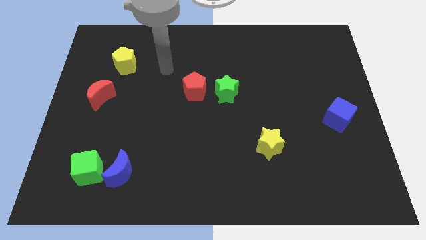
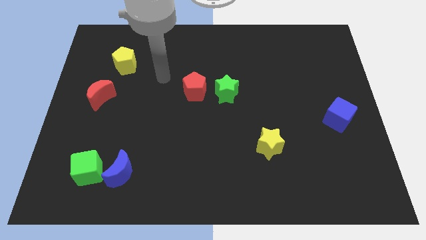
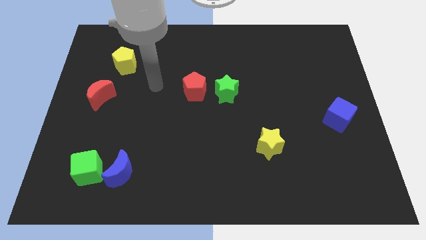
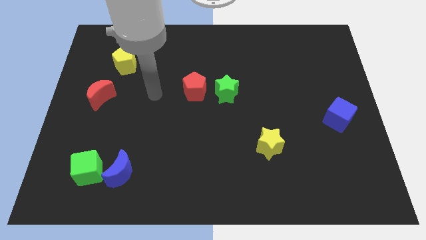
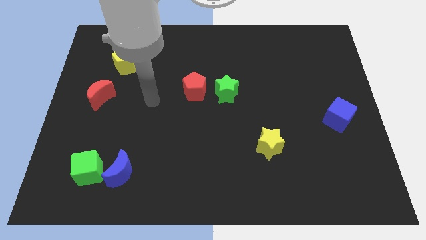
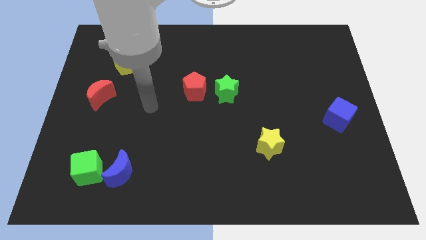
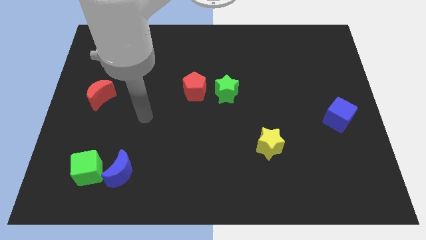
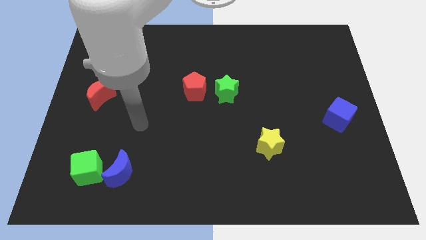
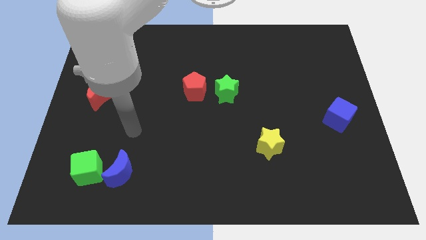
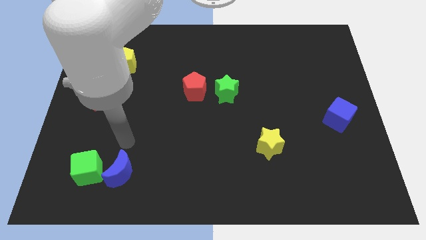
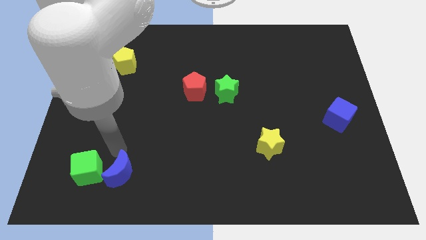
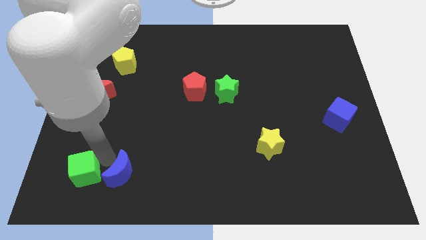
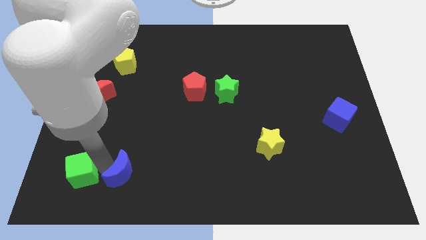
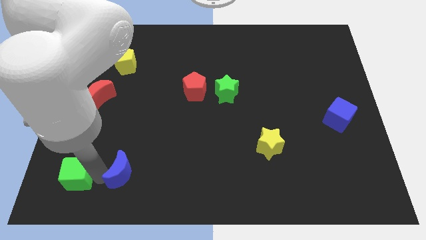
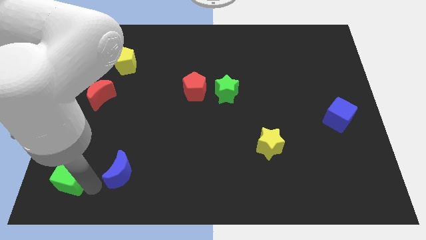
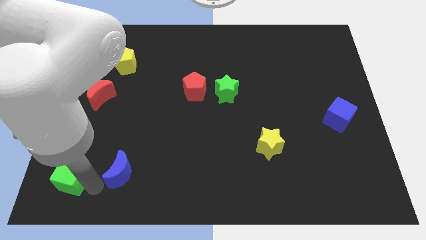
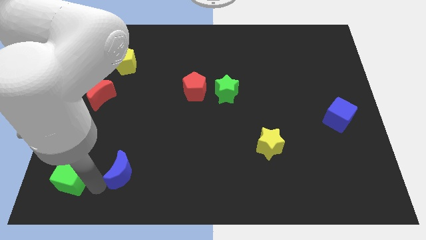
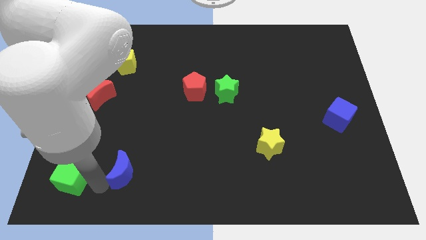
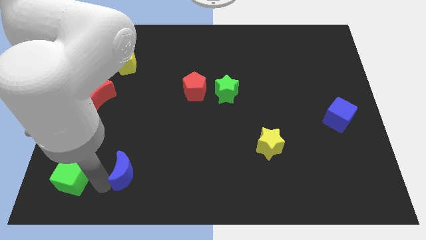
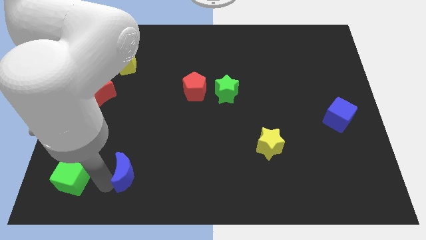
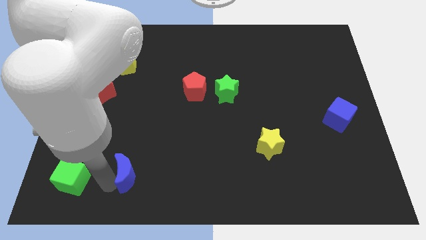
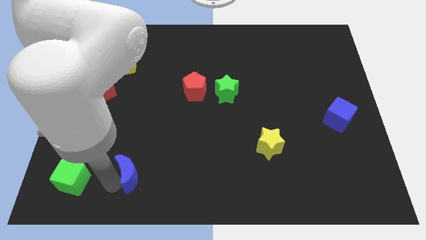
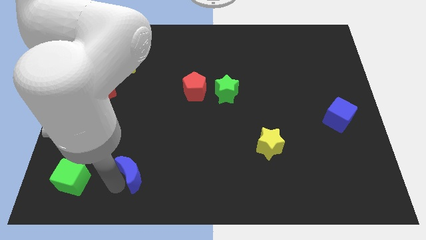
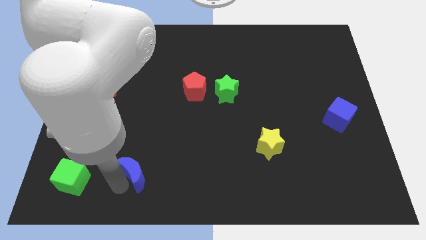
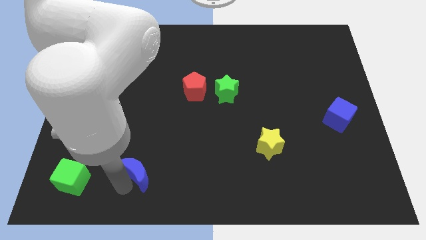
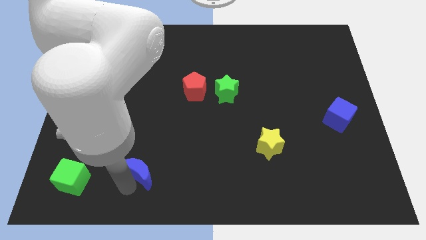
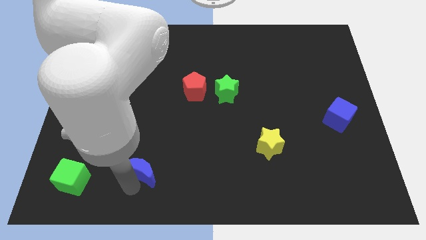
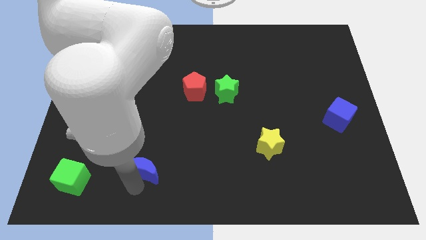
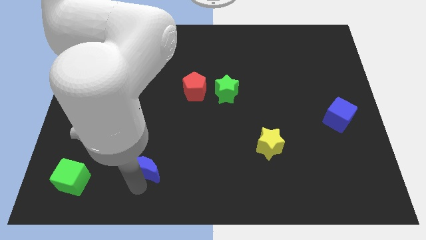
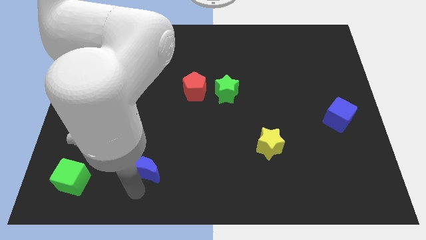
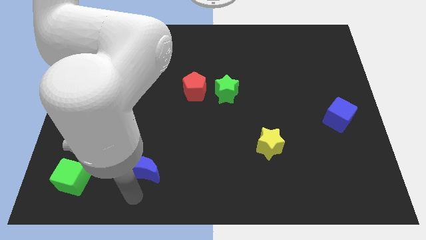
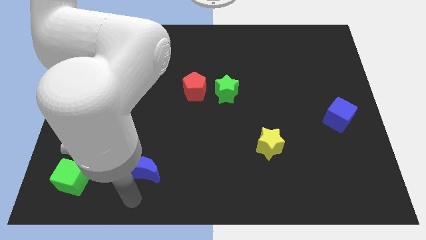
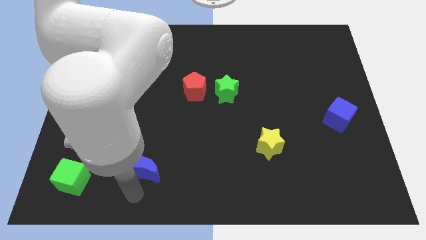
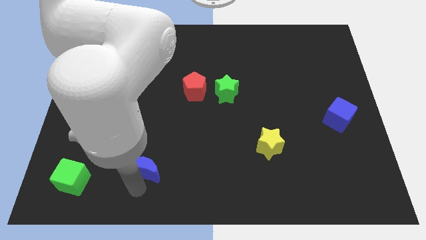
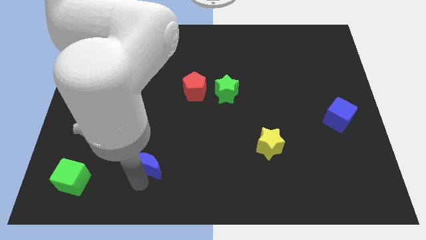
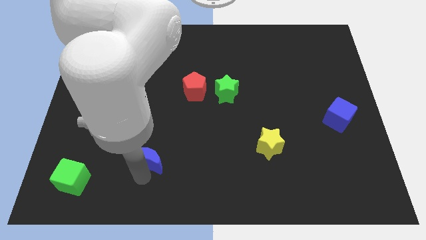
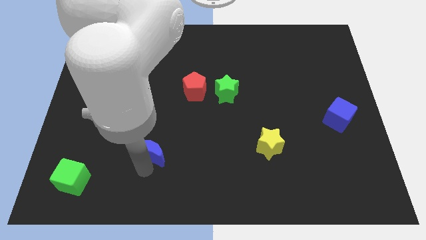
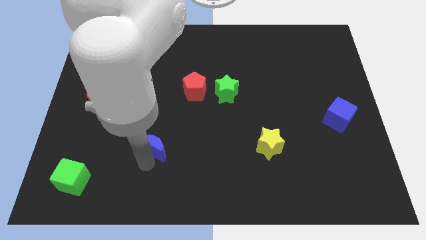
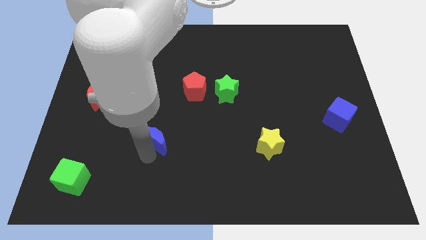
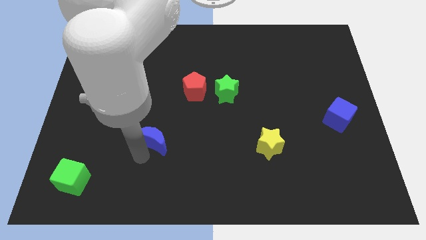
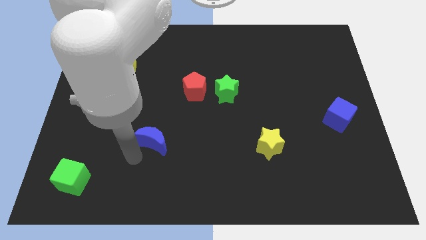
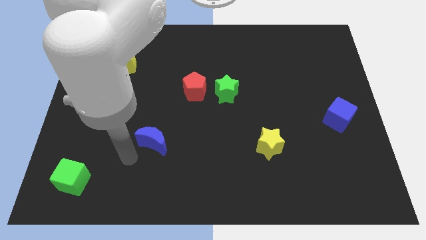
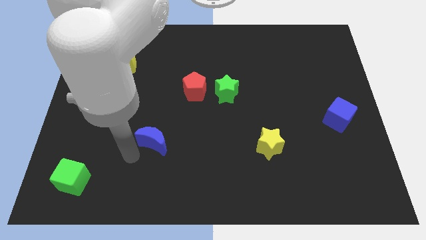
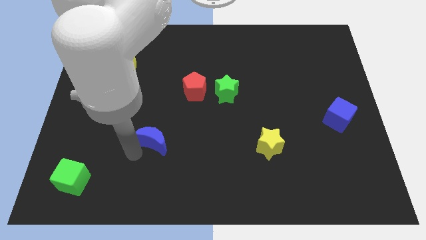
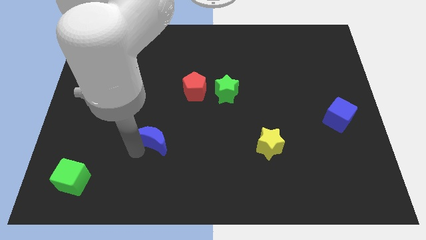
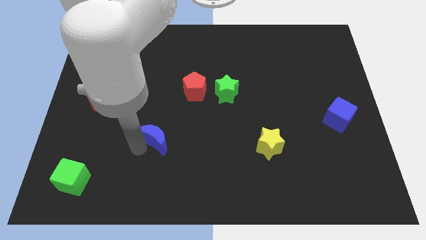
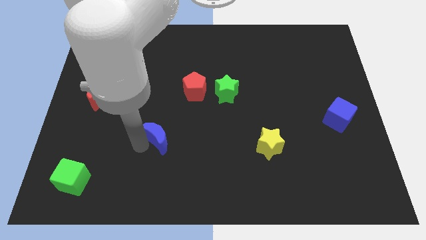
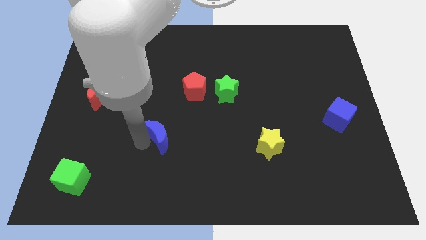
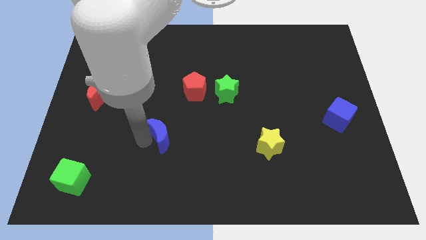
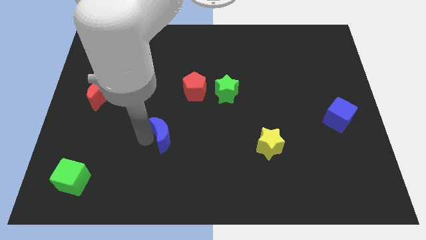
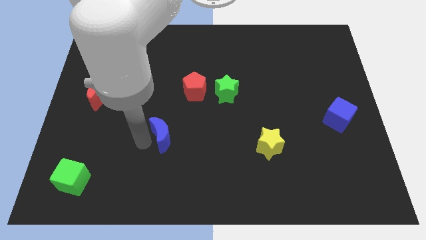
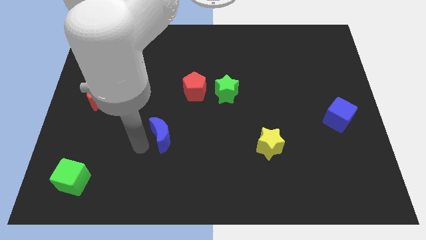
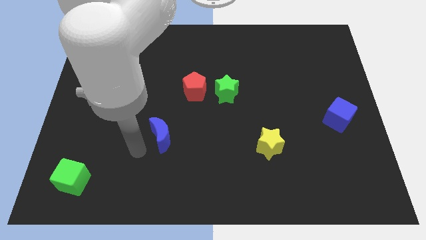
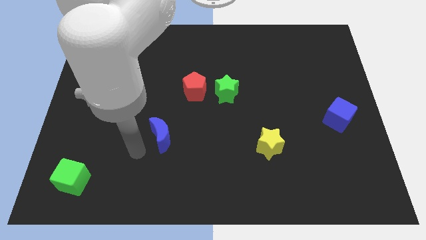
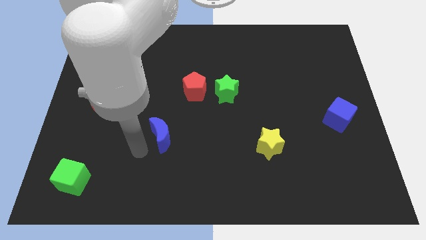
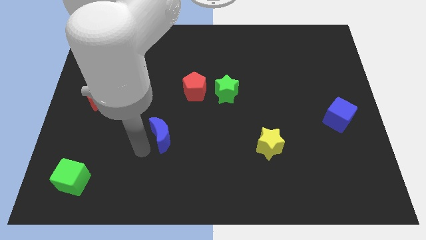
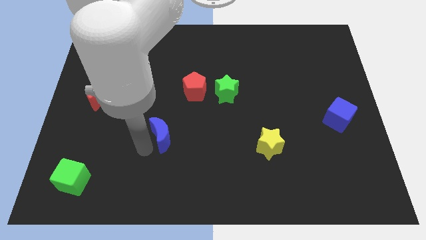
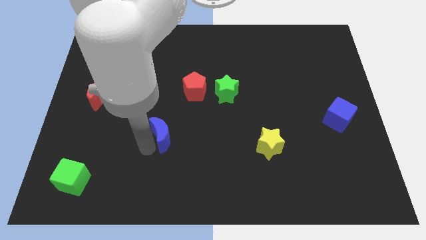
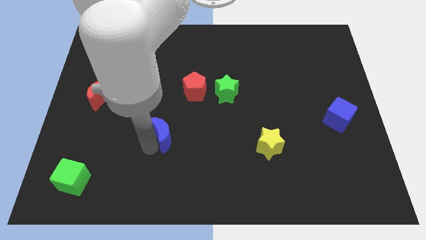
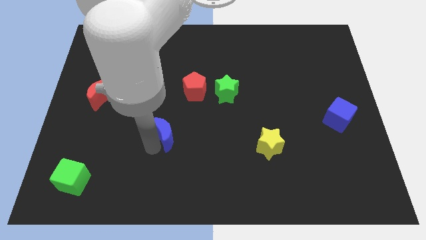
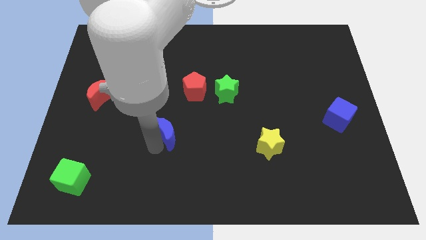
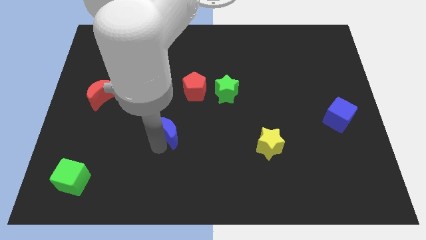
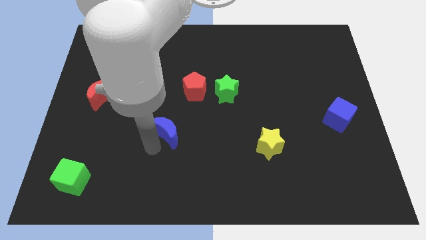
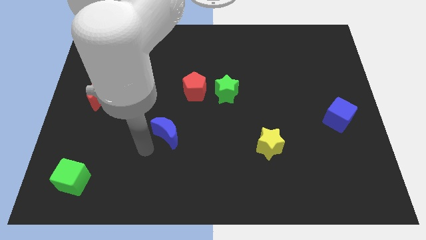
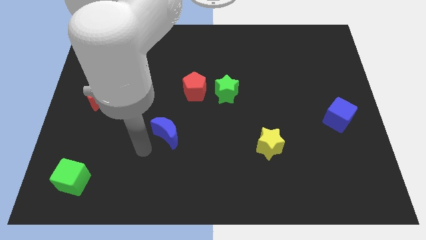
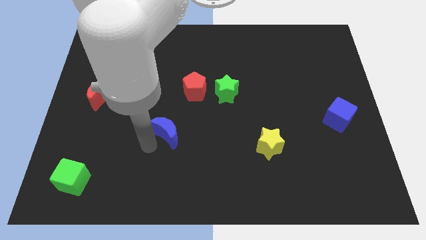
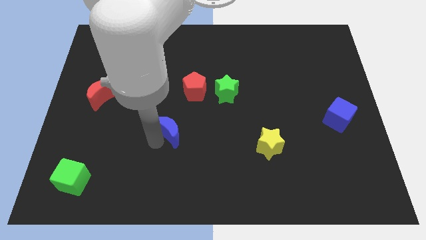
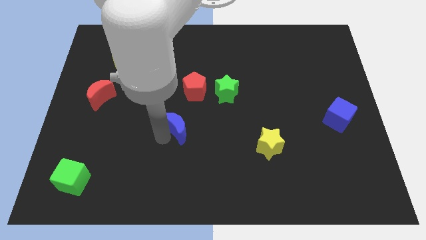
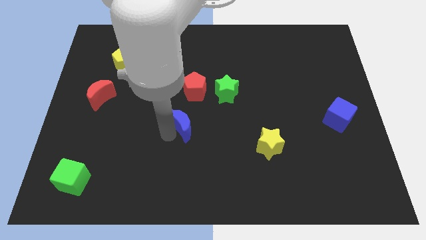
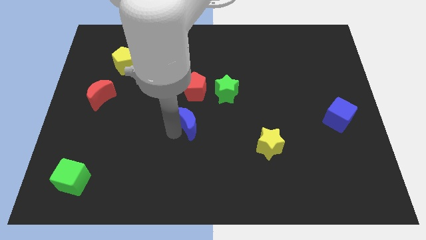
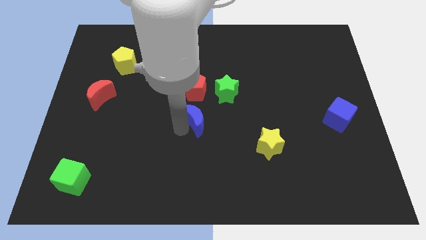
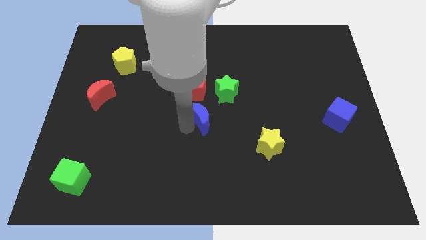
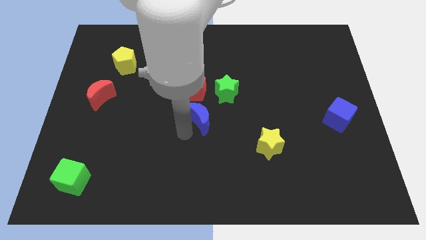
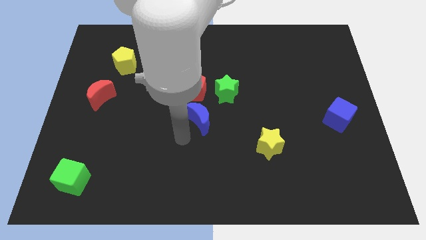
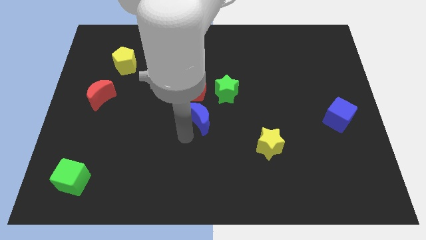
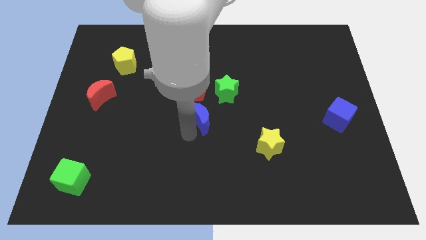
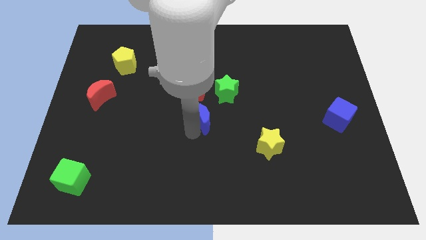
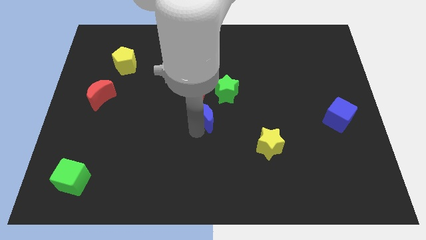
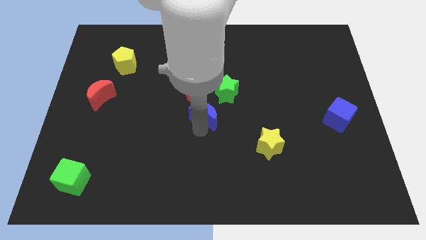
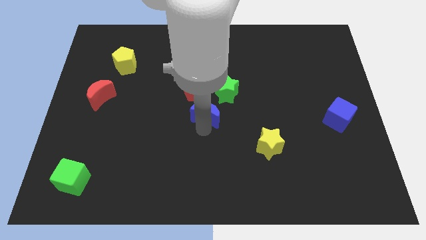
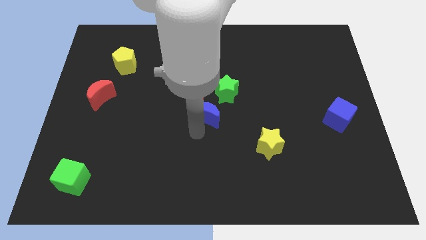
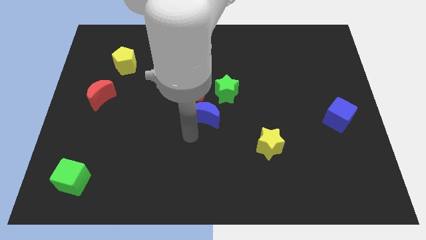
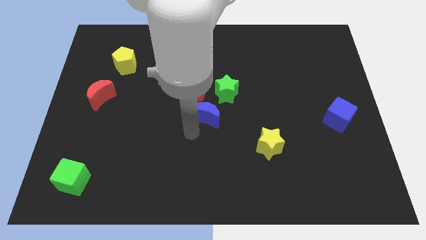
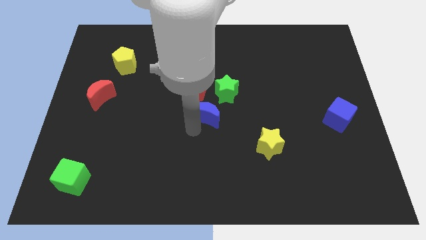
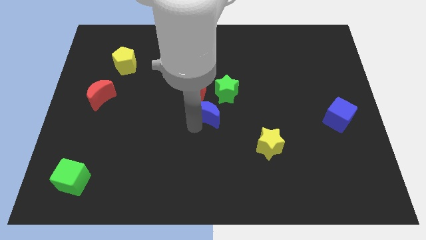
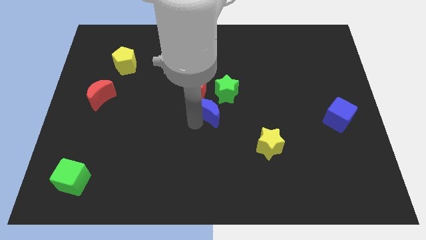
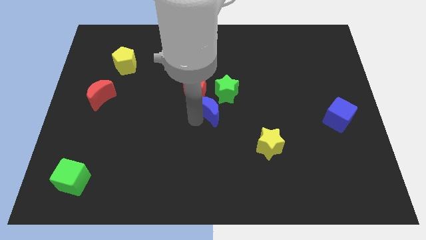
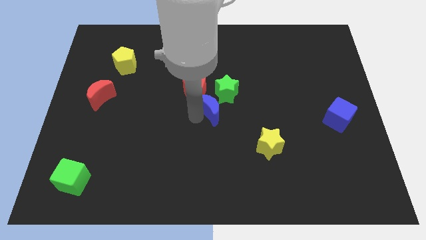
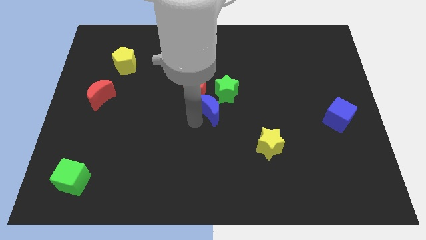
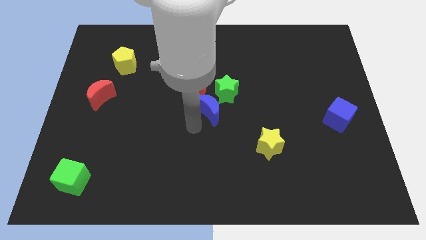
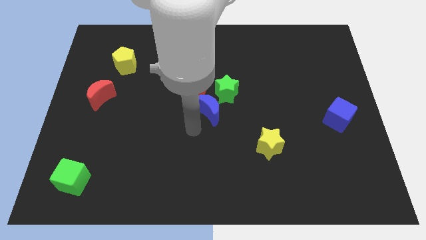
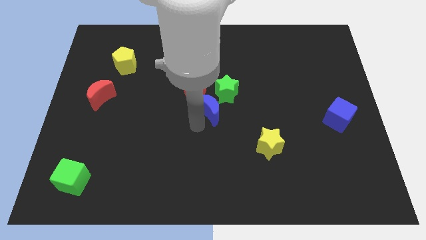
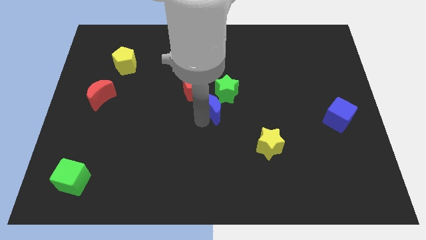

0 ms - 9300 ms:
put the blue moon towards the green star
